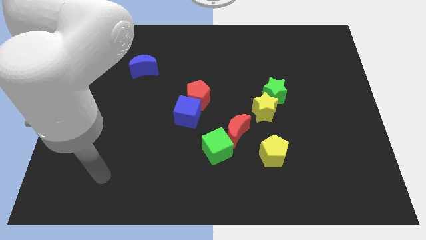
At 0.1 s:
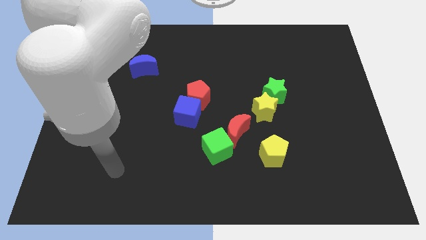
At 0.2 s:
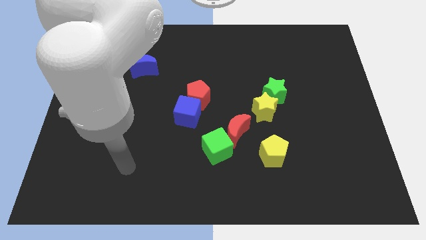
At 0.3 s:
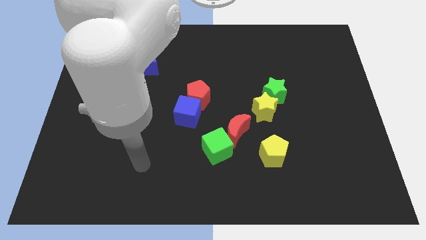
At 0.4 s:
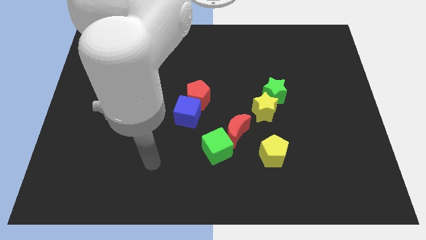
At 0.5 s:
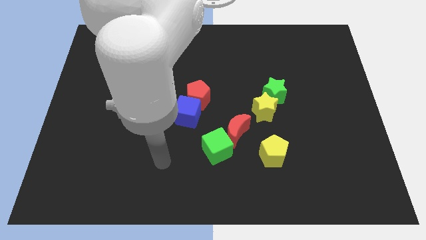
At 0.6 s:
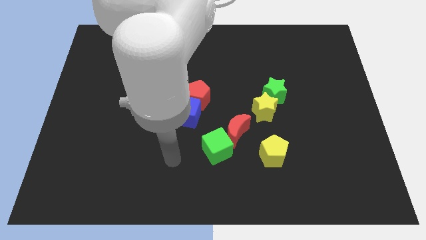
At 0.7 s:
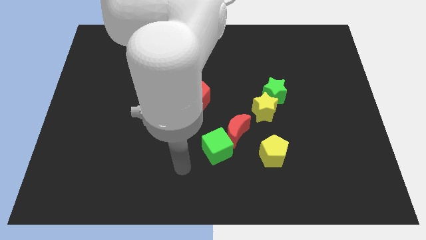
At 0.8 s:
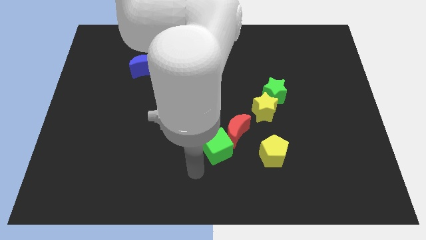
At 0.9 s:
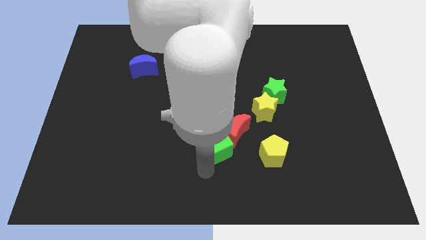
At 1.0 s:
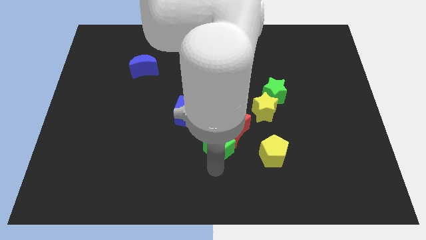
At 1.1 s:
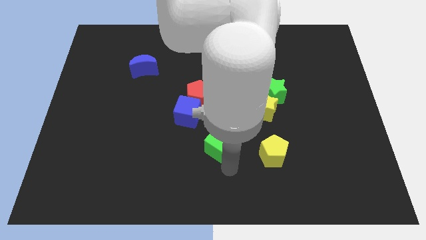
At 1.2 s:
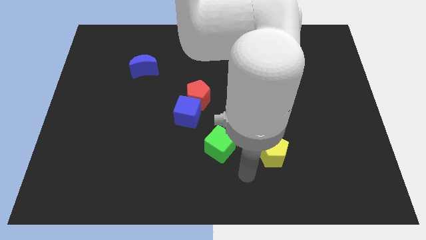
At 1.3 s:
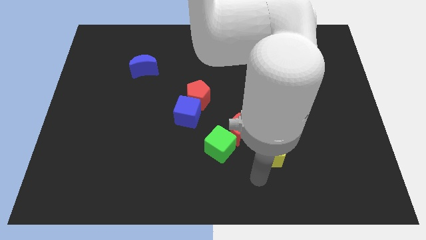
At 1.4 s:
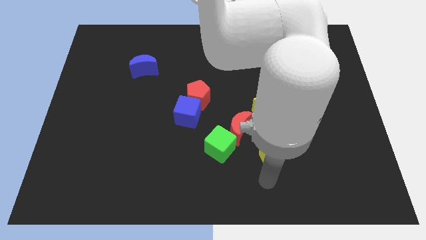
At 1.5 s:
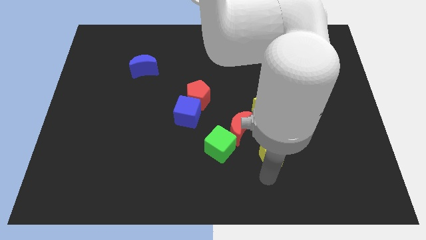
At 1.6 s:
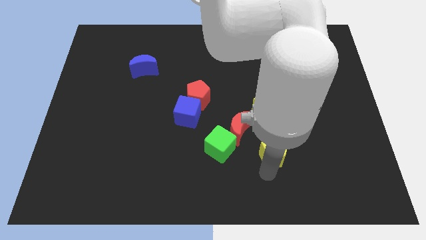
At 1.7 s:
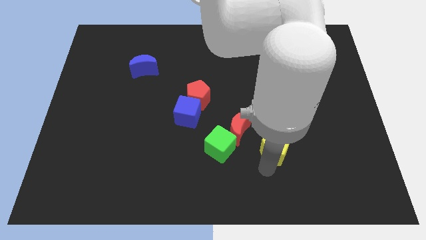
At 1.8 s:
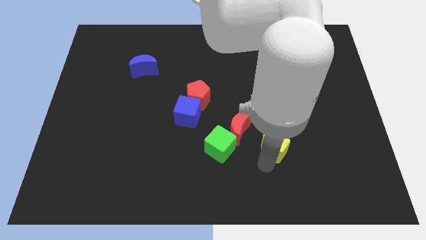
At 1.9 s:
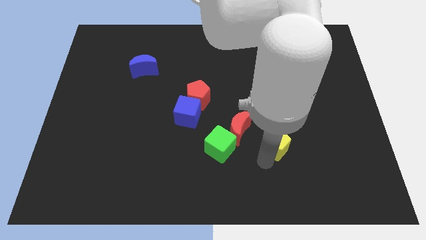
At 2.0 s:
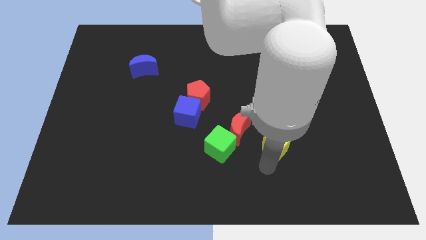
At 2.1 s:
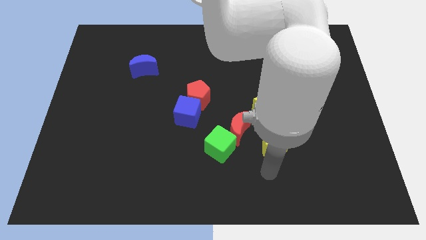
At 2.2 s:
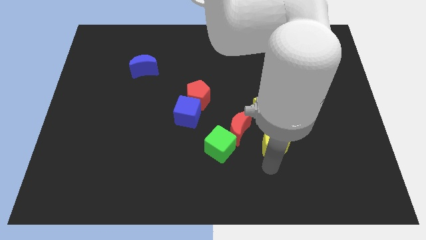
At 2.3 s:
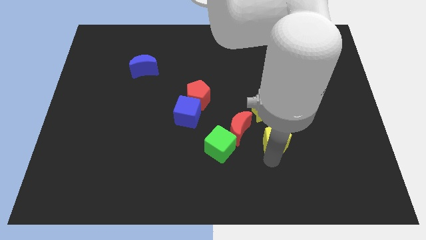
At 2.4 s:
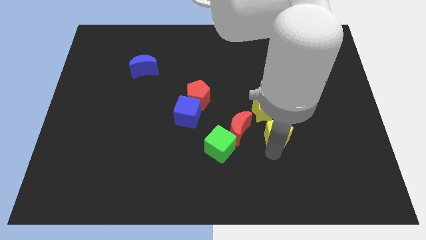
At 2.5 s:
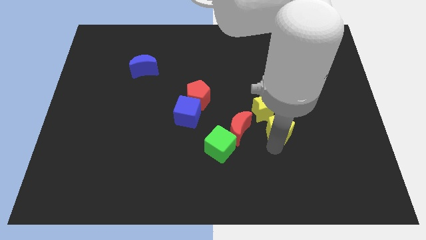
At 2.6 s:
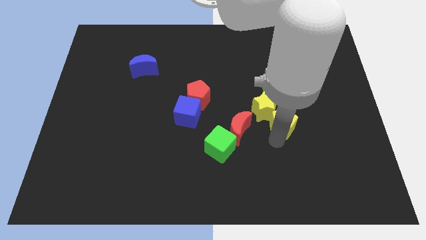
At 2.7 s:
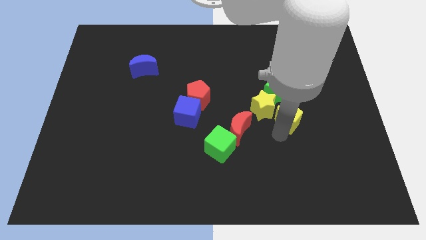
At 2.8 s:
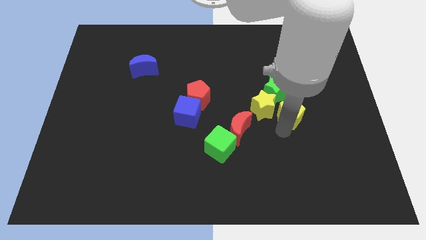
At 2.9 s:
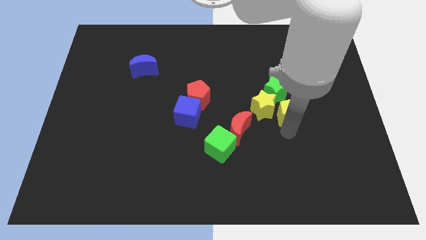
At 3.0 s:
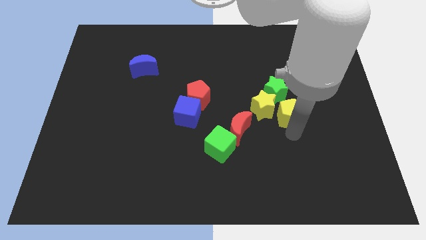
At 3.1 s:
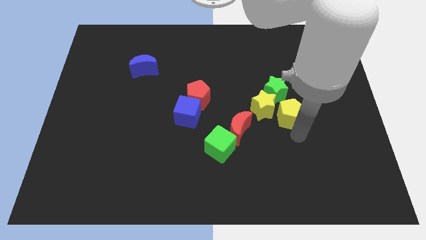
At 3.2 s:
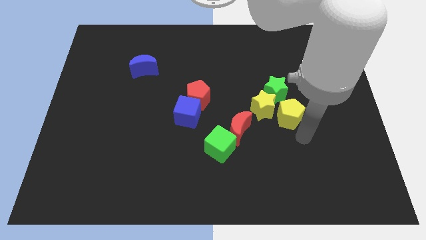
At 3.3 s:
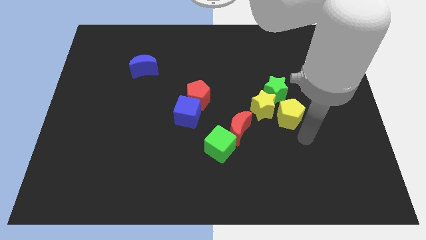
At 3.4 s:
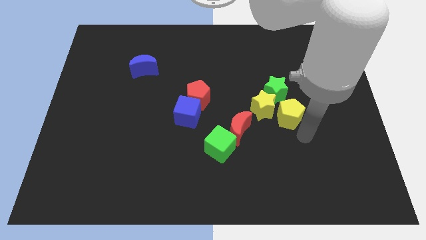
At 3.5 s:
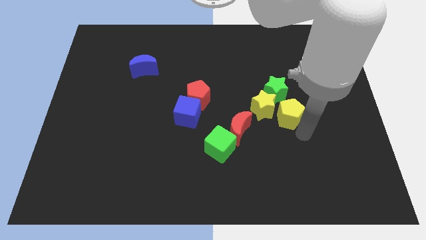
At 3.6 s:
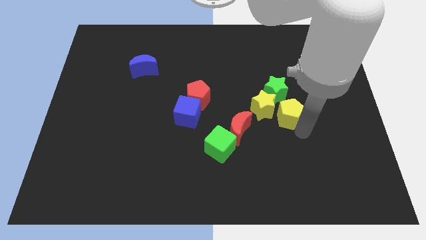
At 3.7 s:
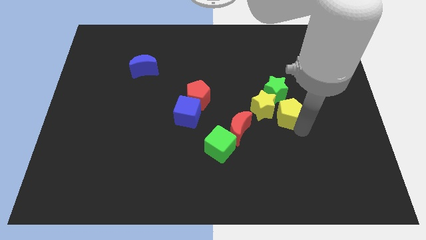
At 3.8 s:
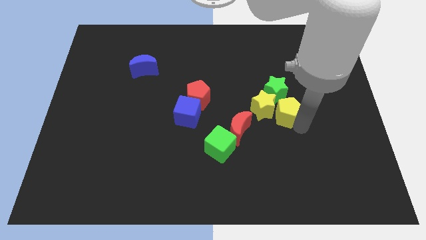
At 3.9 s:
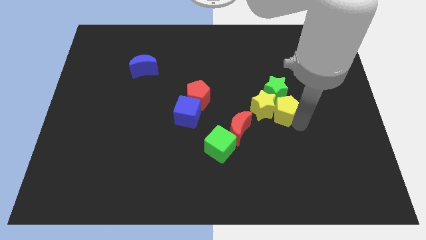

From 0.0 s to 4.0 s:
put the yellow pentagon to the green star

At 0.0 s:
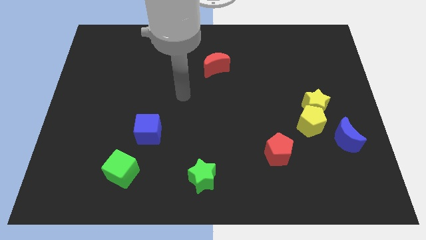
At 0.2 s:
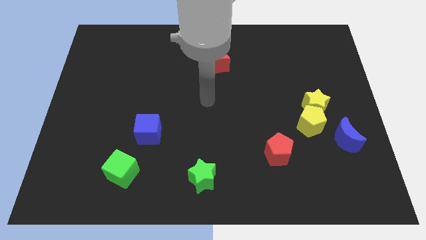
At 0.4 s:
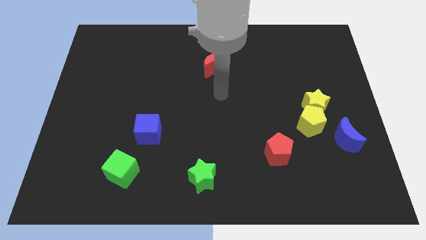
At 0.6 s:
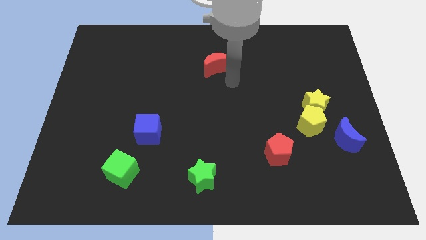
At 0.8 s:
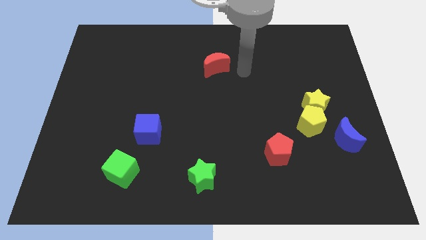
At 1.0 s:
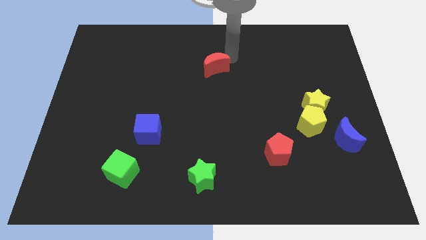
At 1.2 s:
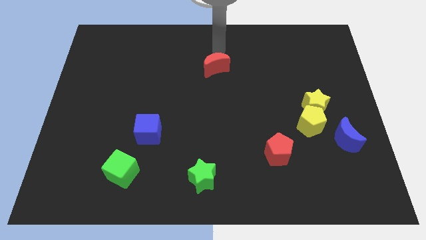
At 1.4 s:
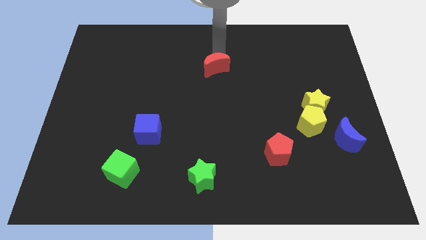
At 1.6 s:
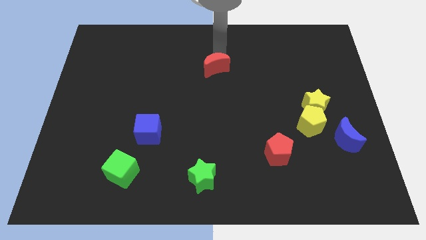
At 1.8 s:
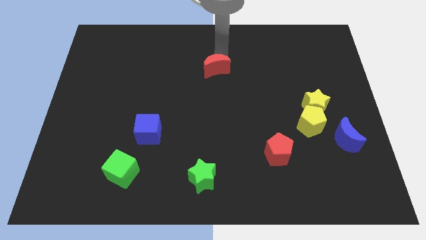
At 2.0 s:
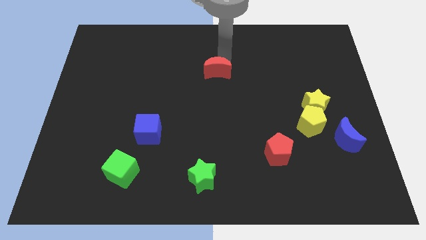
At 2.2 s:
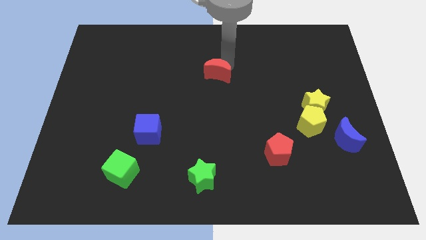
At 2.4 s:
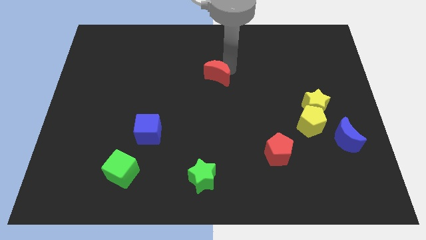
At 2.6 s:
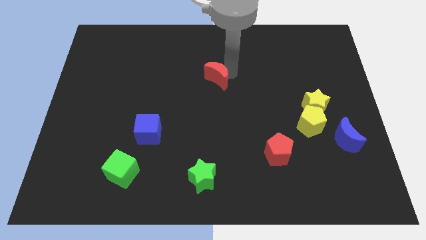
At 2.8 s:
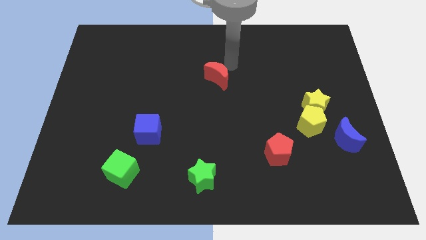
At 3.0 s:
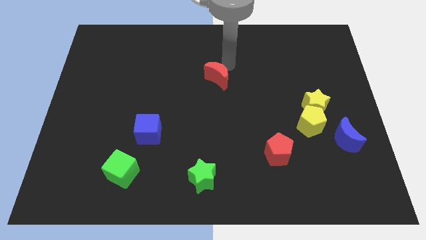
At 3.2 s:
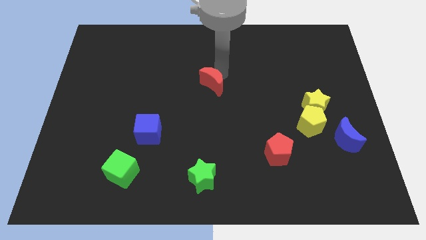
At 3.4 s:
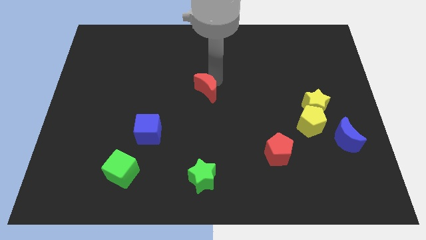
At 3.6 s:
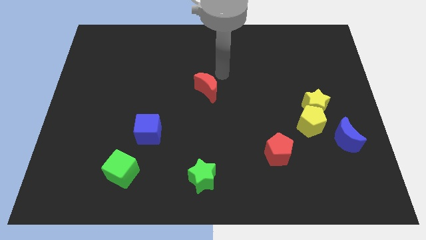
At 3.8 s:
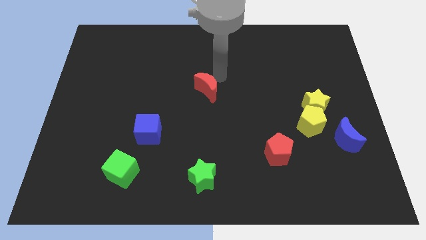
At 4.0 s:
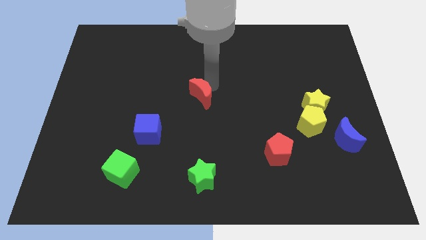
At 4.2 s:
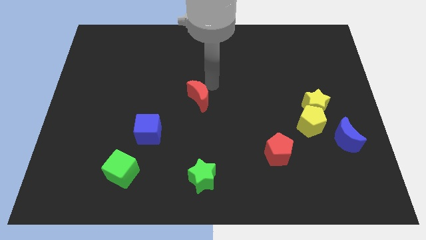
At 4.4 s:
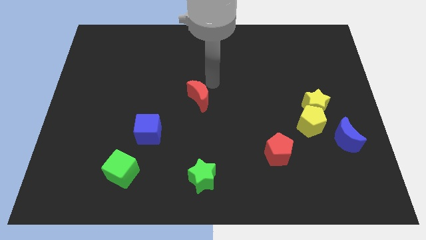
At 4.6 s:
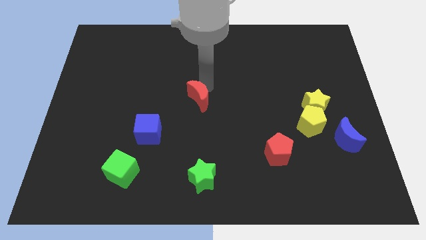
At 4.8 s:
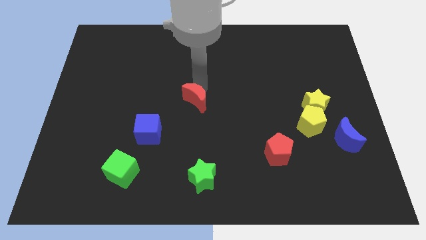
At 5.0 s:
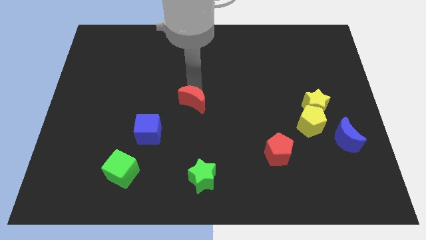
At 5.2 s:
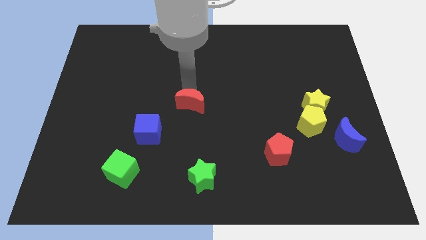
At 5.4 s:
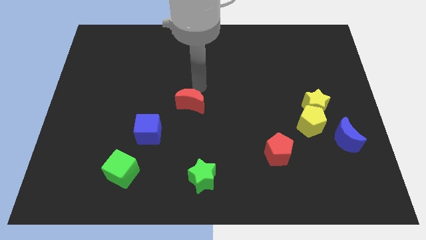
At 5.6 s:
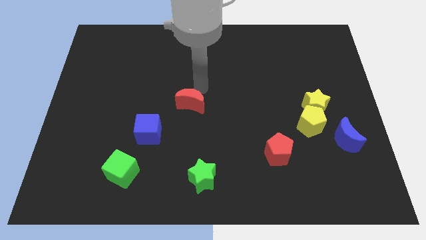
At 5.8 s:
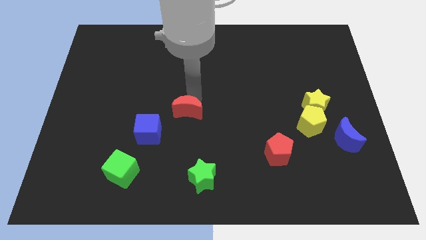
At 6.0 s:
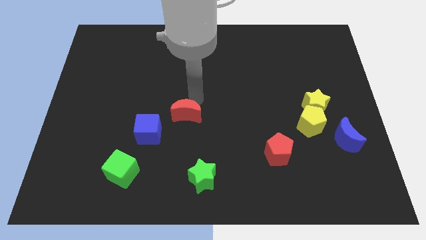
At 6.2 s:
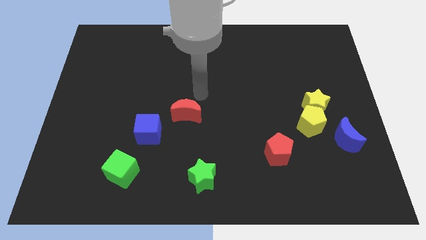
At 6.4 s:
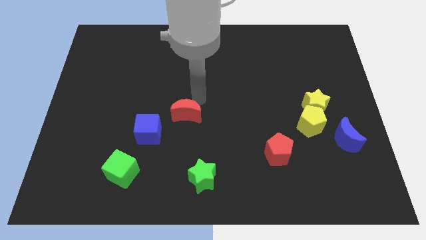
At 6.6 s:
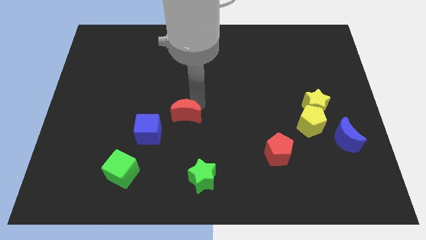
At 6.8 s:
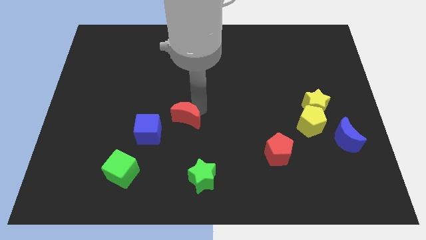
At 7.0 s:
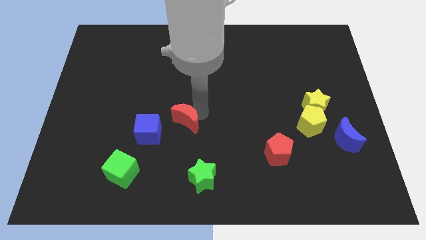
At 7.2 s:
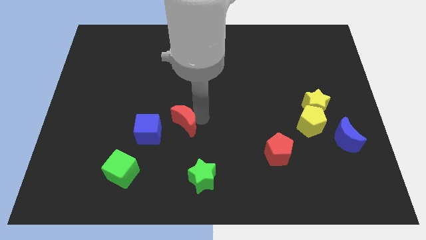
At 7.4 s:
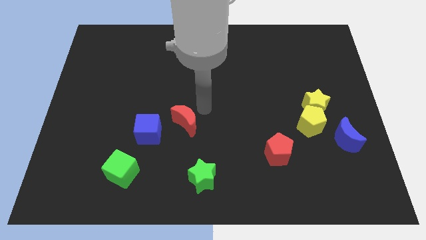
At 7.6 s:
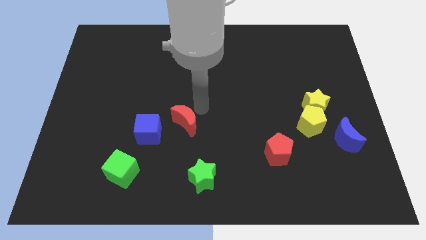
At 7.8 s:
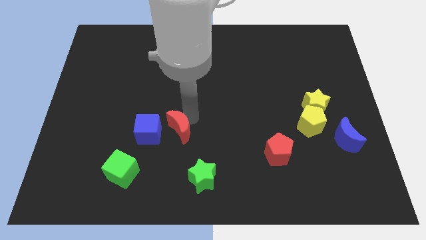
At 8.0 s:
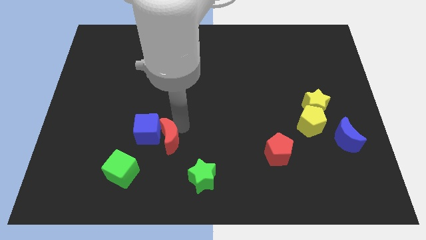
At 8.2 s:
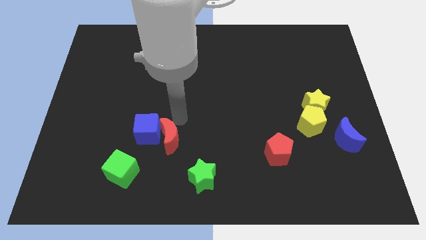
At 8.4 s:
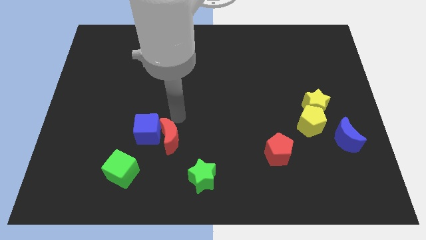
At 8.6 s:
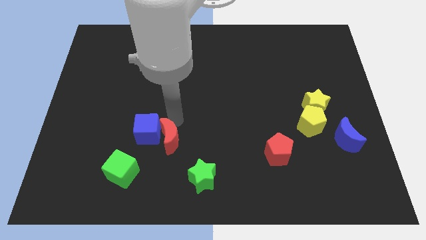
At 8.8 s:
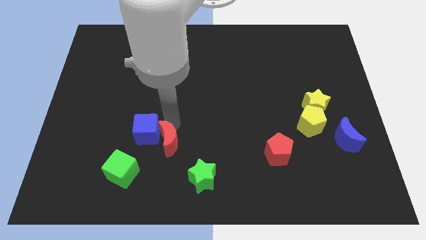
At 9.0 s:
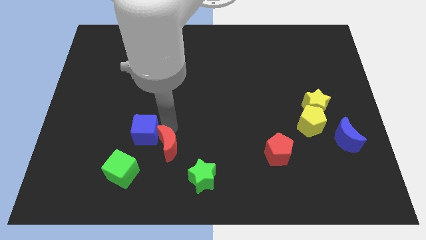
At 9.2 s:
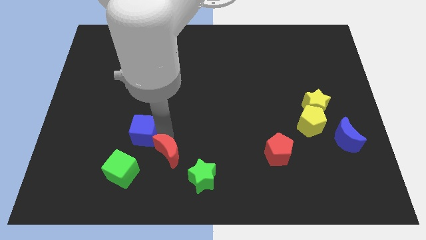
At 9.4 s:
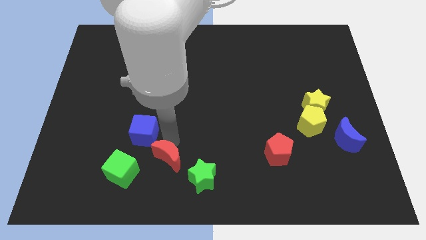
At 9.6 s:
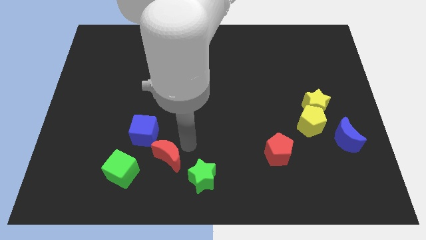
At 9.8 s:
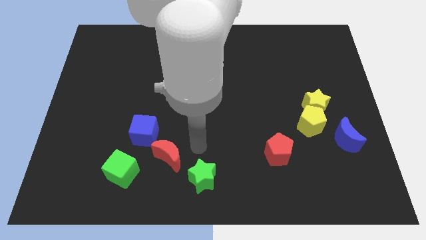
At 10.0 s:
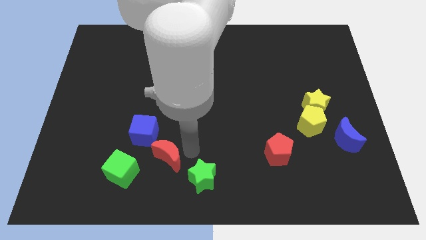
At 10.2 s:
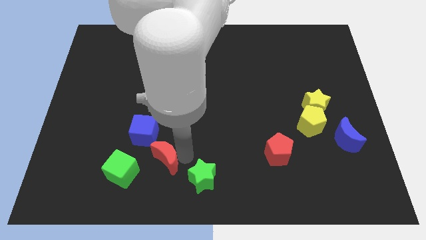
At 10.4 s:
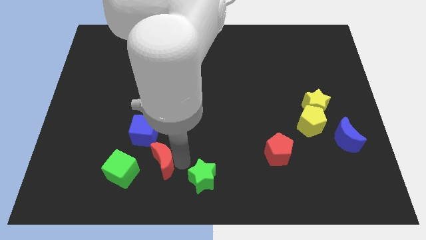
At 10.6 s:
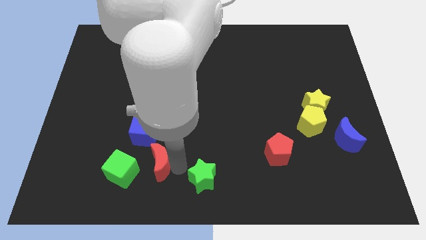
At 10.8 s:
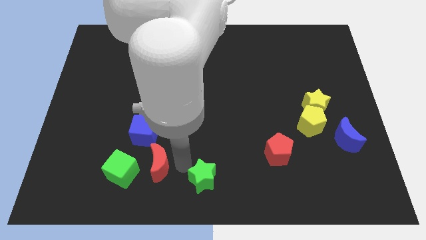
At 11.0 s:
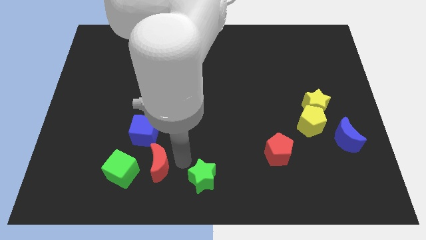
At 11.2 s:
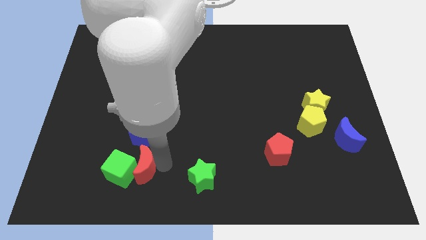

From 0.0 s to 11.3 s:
push the red moon towards the green cube
